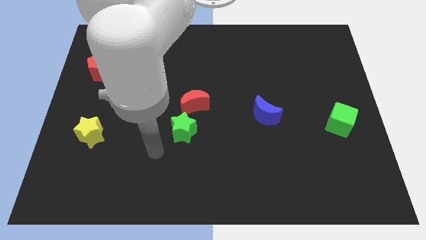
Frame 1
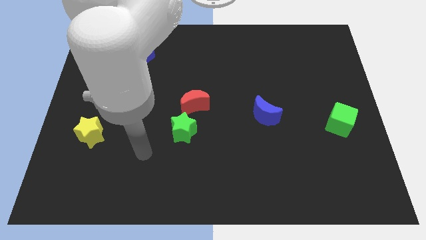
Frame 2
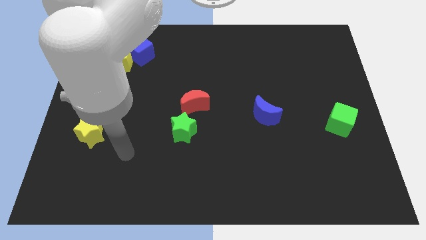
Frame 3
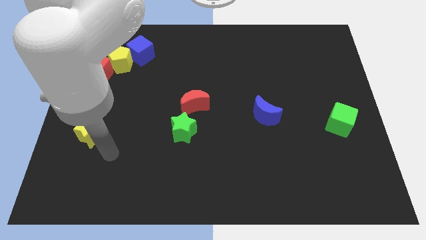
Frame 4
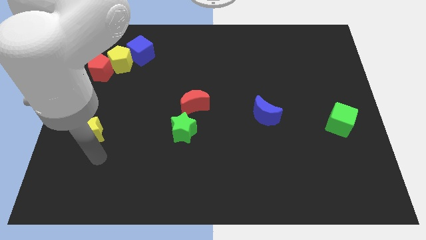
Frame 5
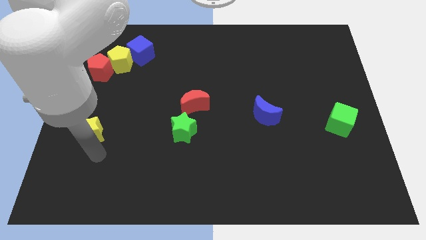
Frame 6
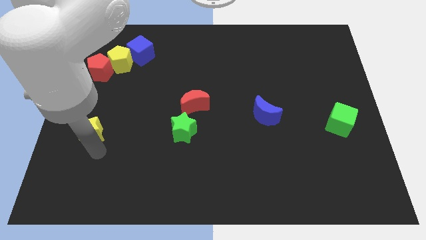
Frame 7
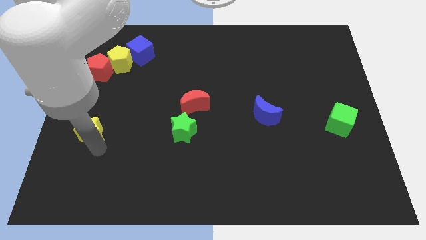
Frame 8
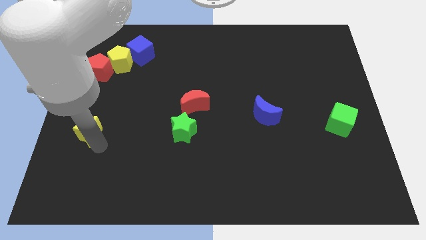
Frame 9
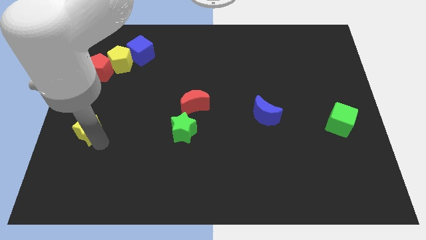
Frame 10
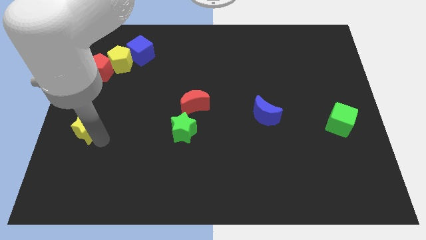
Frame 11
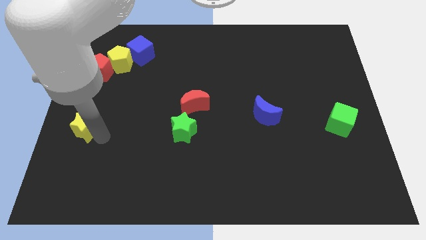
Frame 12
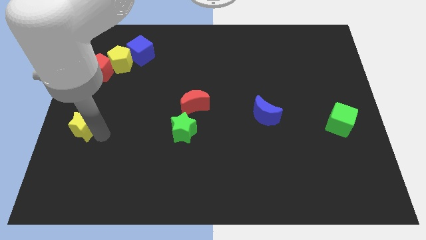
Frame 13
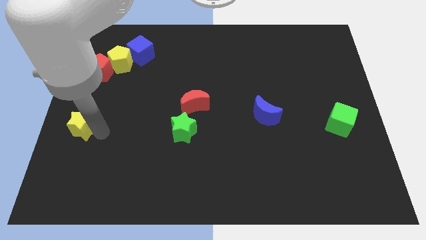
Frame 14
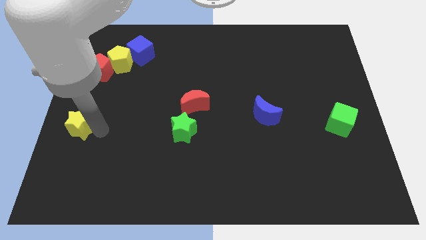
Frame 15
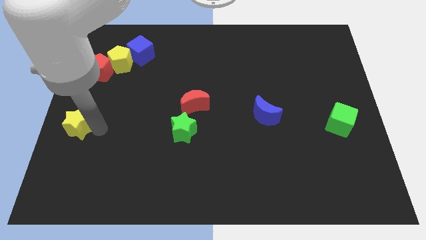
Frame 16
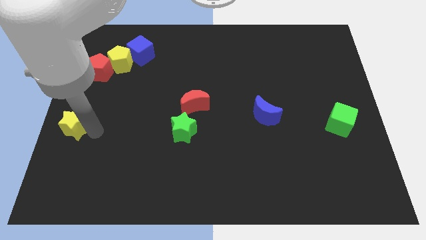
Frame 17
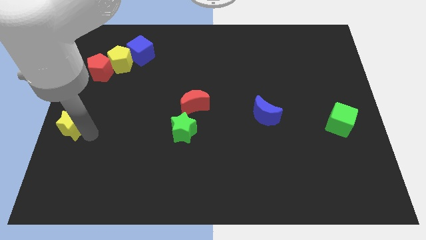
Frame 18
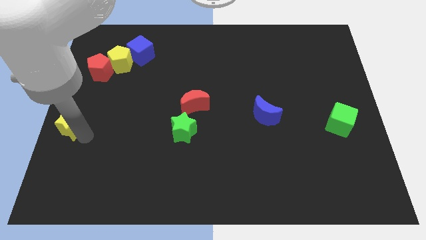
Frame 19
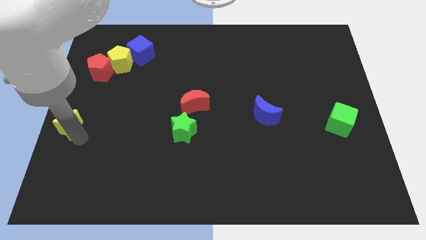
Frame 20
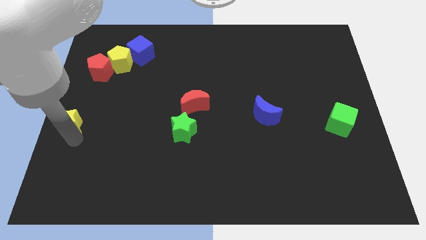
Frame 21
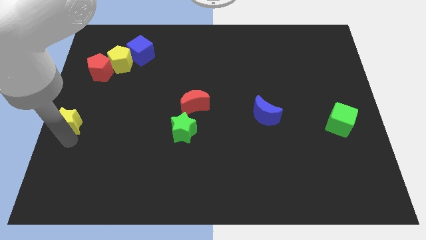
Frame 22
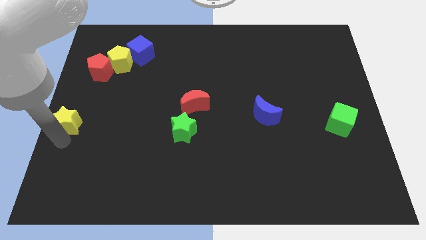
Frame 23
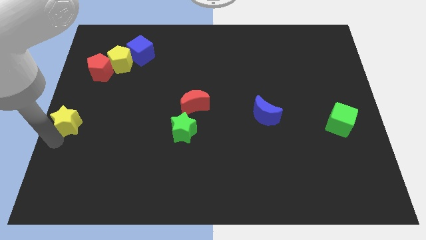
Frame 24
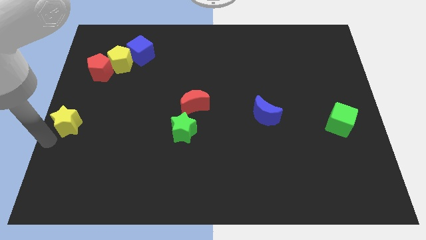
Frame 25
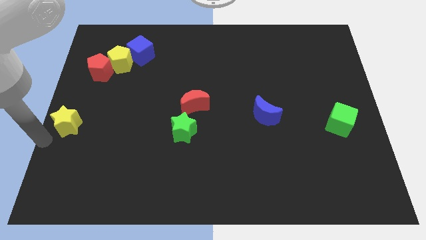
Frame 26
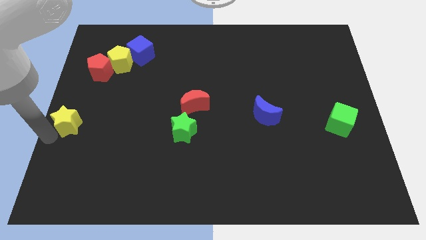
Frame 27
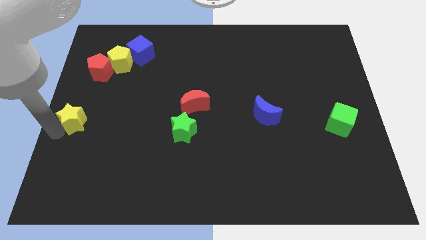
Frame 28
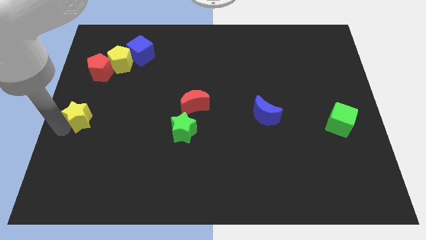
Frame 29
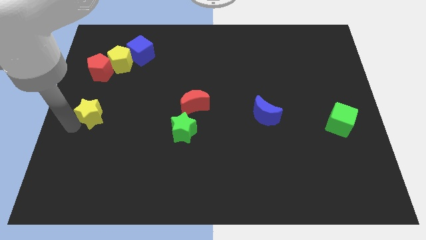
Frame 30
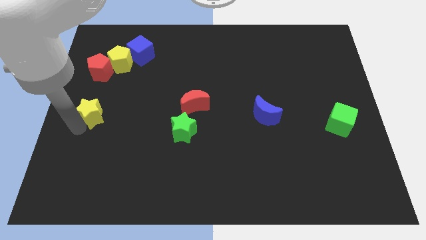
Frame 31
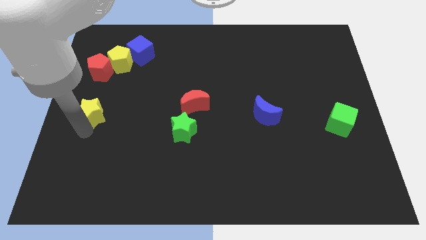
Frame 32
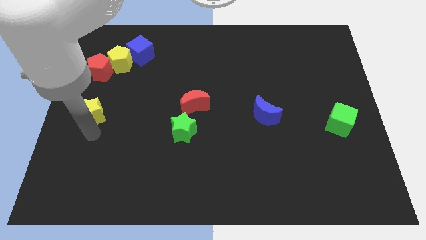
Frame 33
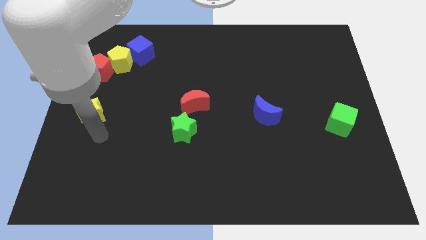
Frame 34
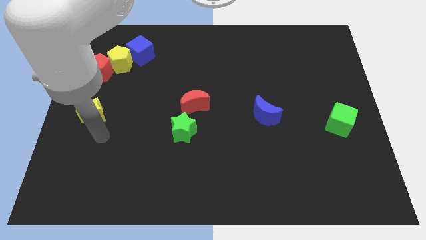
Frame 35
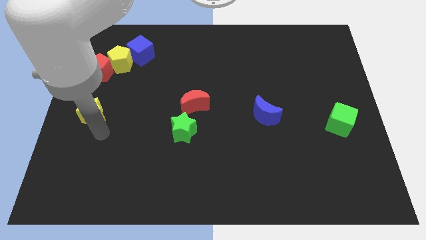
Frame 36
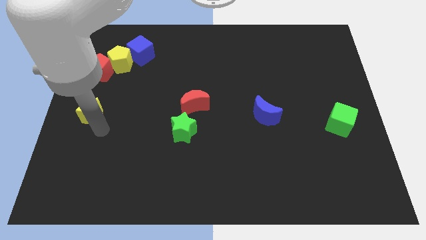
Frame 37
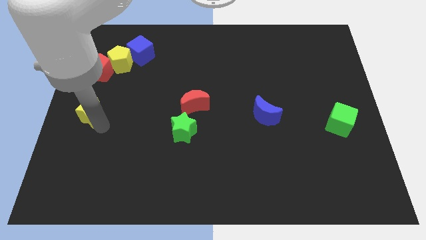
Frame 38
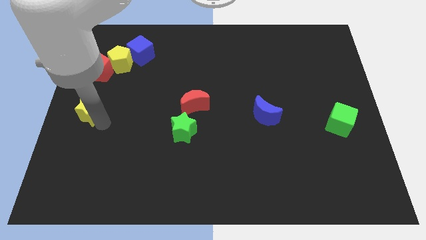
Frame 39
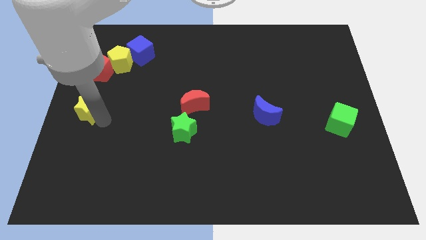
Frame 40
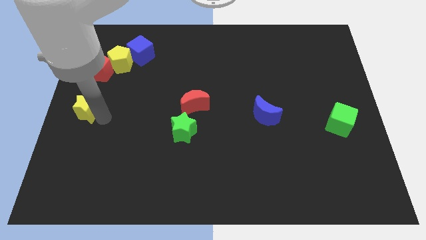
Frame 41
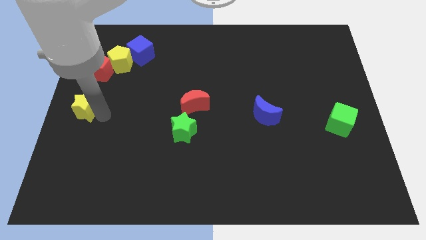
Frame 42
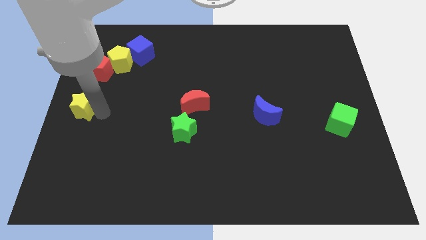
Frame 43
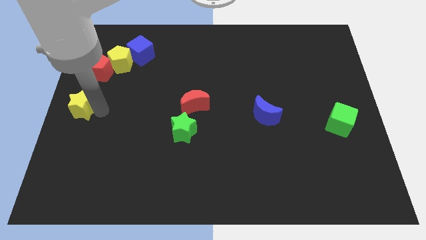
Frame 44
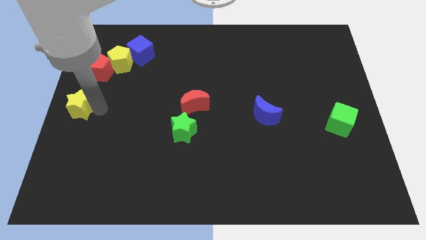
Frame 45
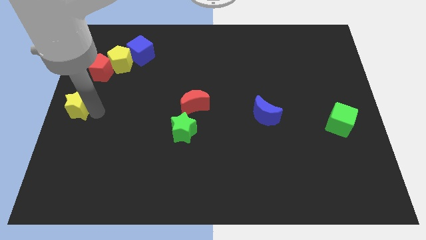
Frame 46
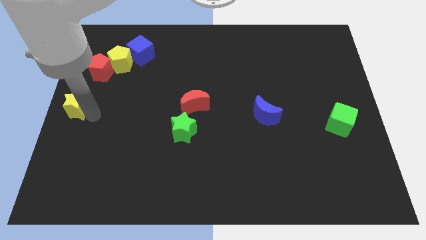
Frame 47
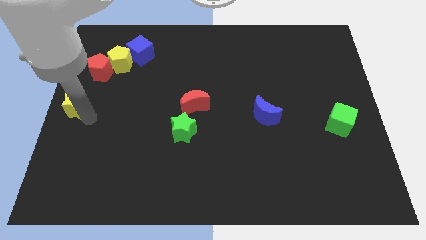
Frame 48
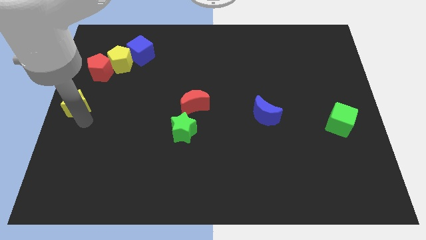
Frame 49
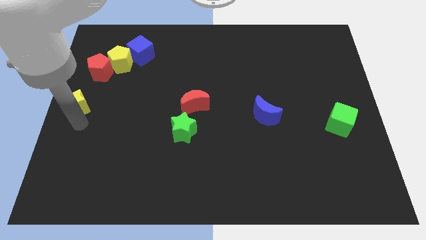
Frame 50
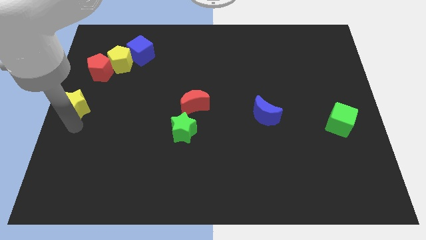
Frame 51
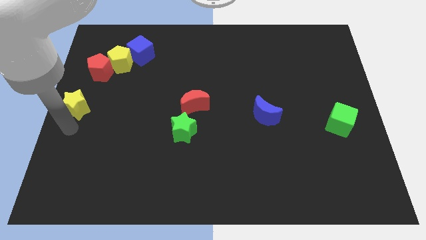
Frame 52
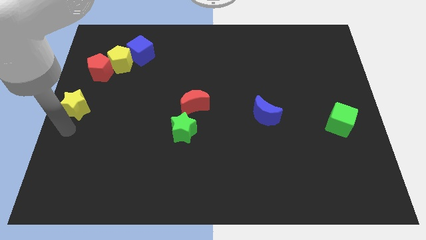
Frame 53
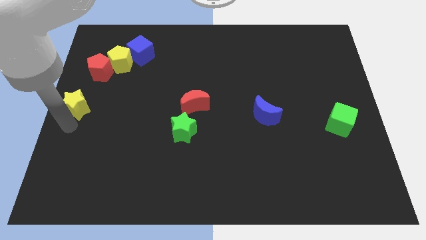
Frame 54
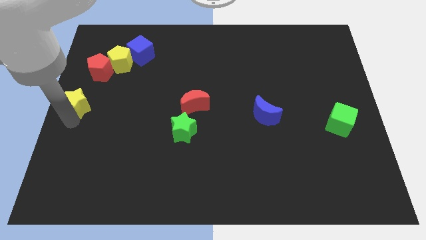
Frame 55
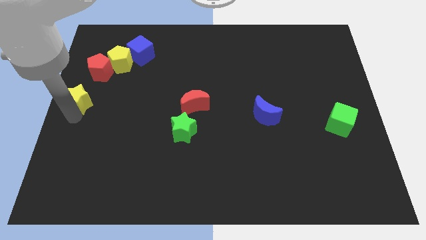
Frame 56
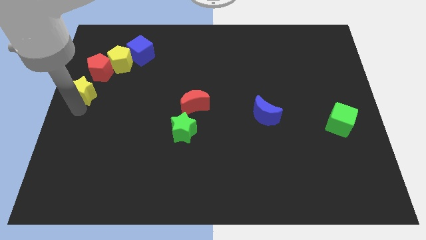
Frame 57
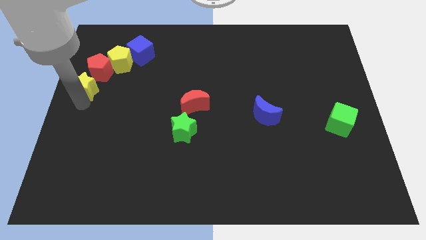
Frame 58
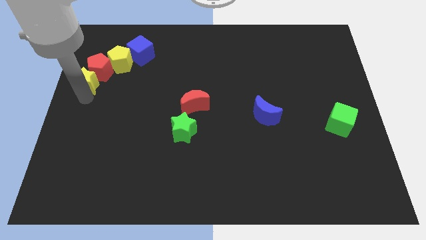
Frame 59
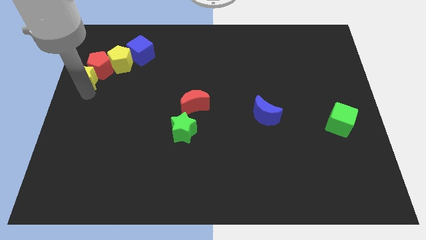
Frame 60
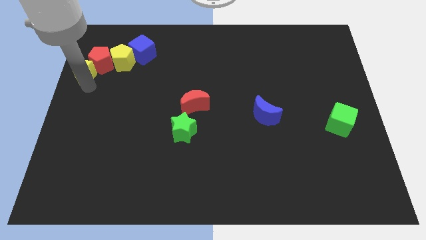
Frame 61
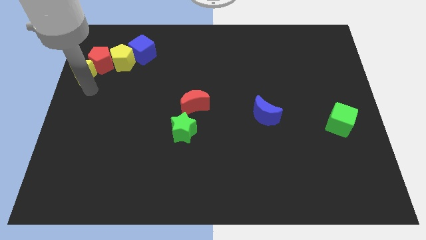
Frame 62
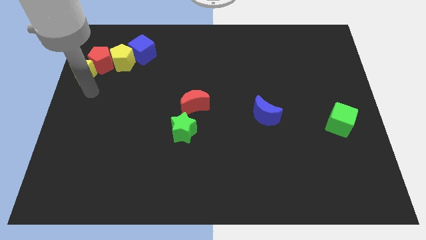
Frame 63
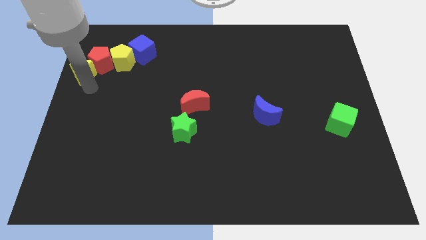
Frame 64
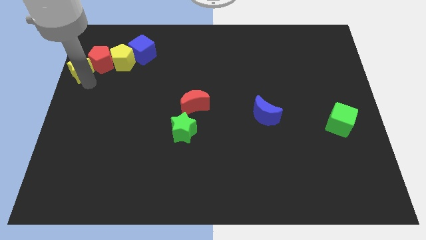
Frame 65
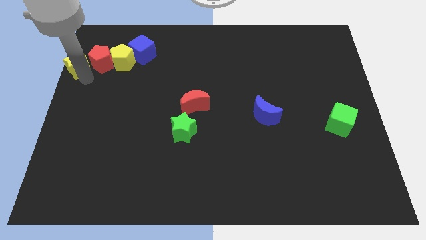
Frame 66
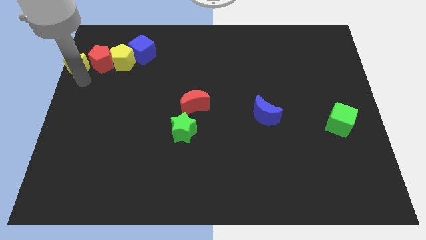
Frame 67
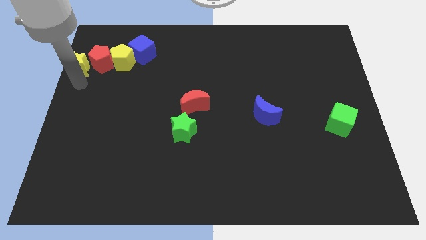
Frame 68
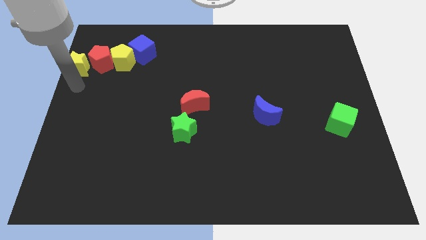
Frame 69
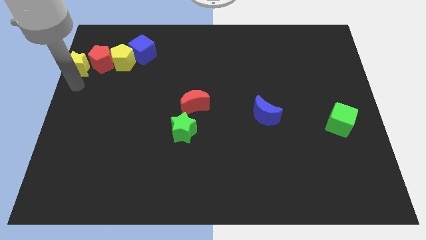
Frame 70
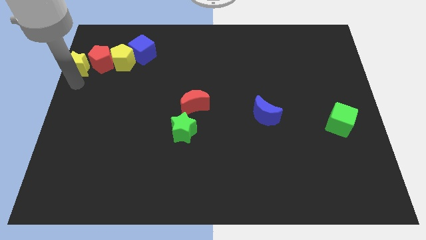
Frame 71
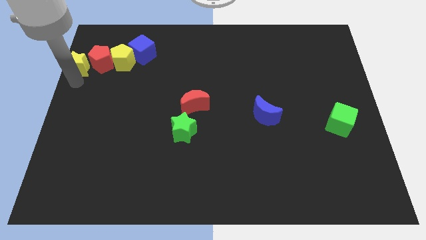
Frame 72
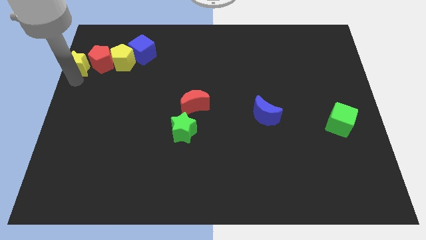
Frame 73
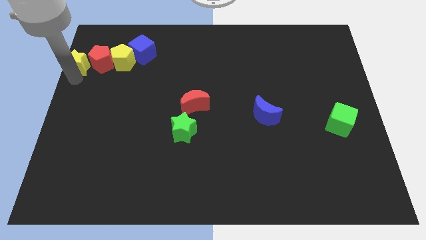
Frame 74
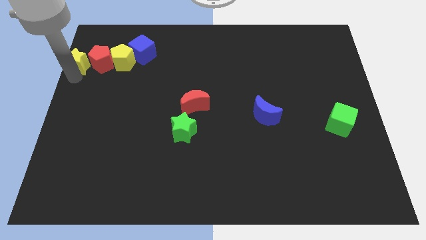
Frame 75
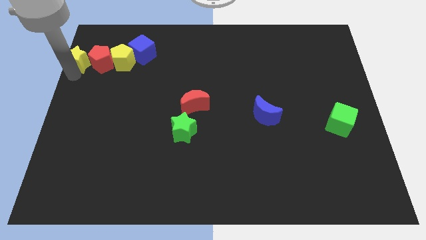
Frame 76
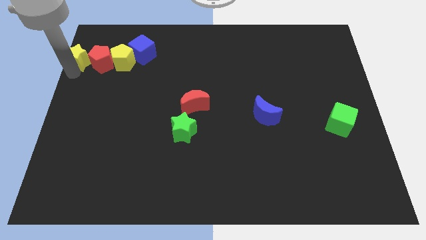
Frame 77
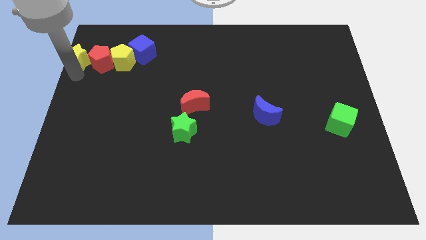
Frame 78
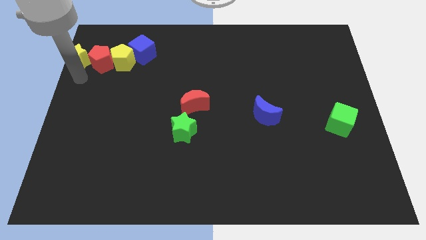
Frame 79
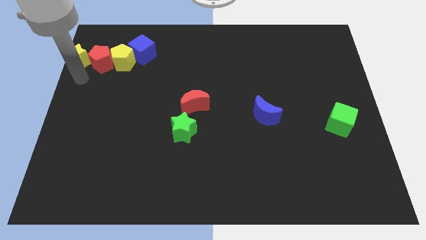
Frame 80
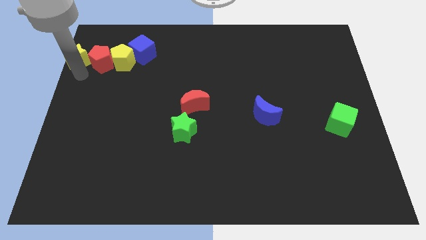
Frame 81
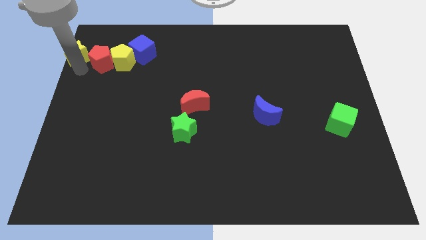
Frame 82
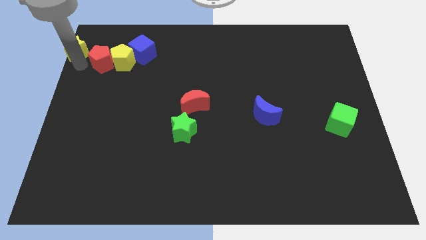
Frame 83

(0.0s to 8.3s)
push the yellow star to the top left
